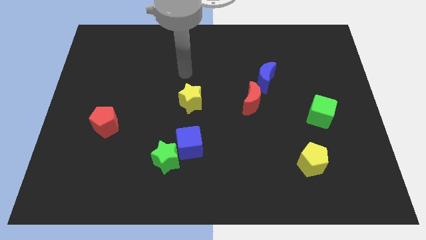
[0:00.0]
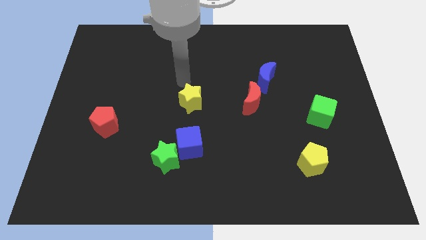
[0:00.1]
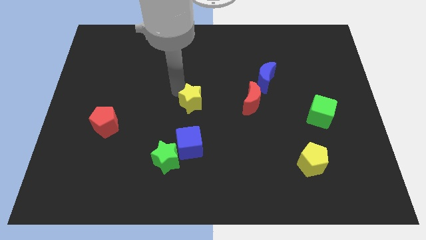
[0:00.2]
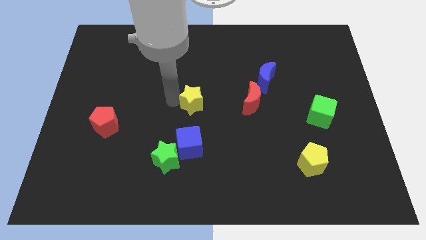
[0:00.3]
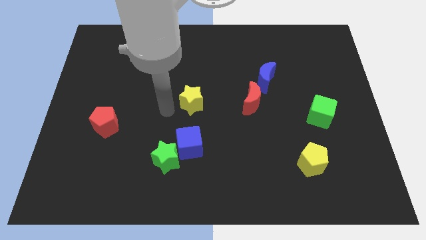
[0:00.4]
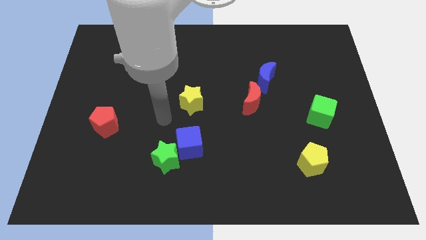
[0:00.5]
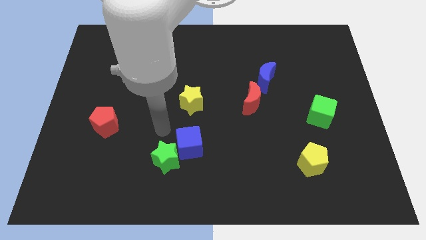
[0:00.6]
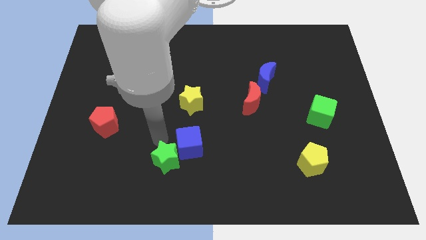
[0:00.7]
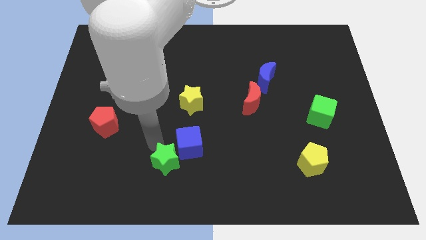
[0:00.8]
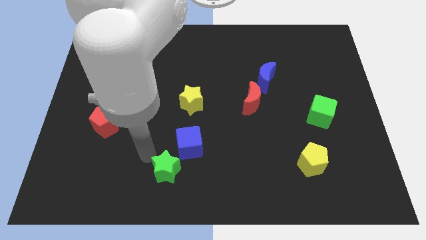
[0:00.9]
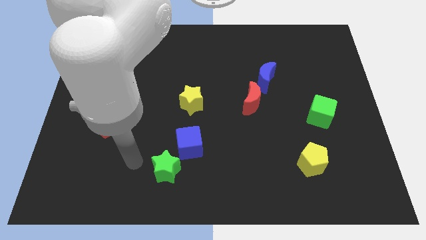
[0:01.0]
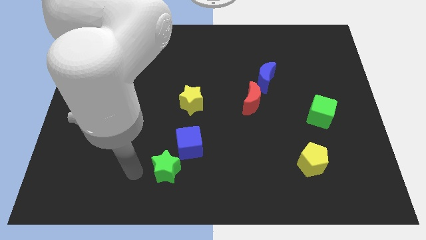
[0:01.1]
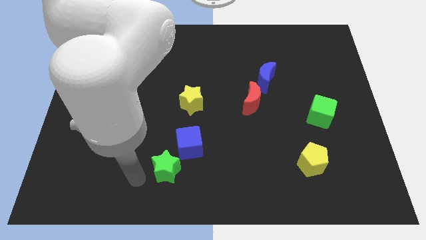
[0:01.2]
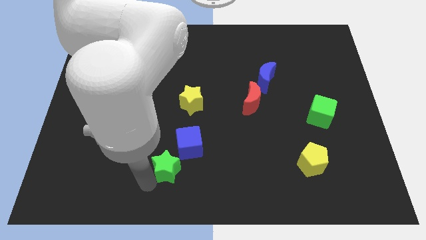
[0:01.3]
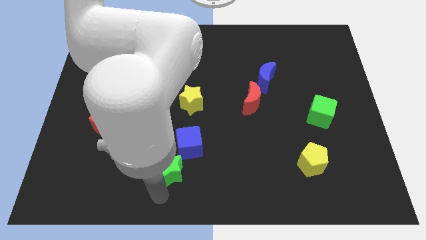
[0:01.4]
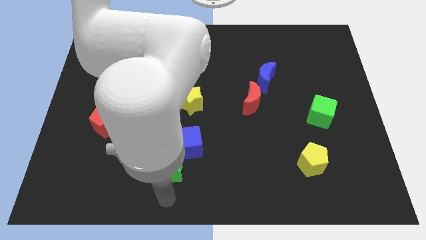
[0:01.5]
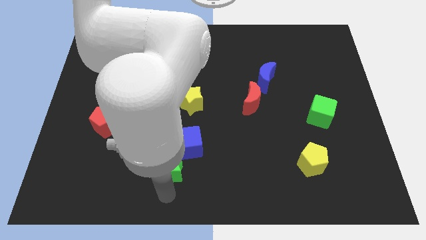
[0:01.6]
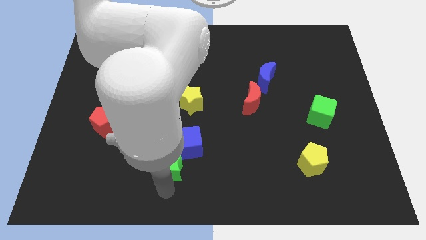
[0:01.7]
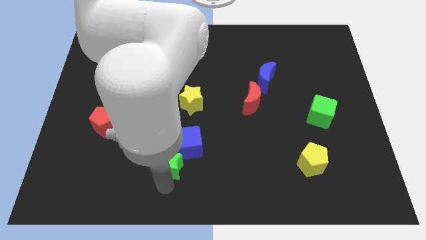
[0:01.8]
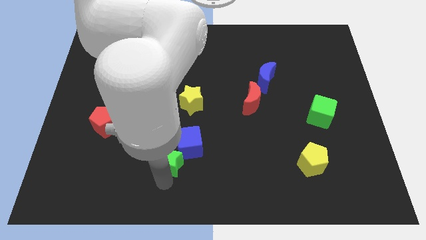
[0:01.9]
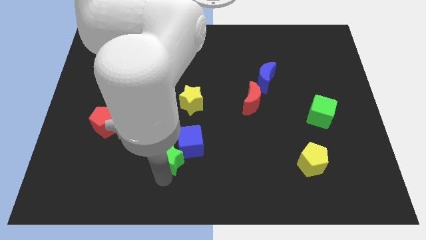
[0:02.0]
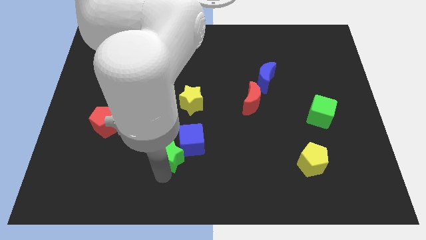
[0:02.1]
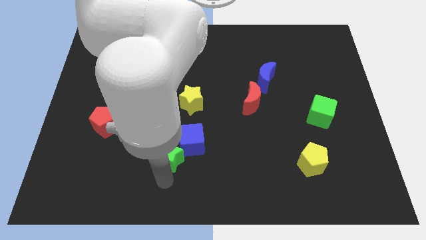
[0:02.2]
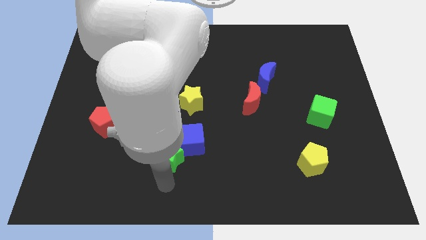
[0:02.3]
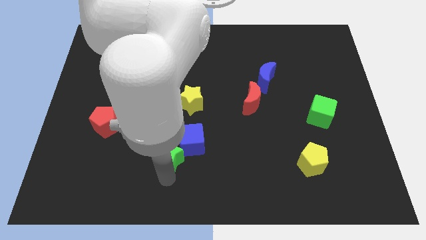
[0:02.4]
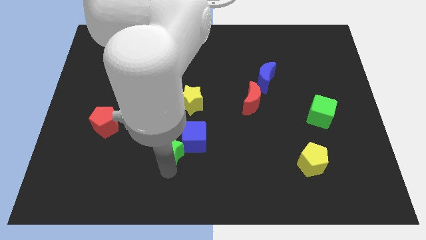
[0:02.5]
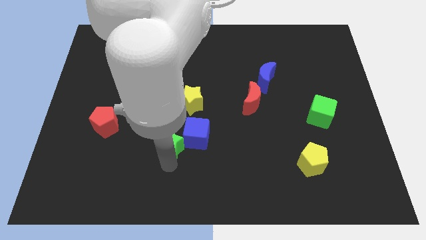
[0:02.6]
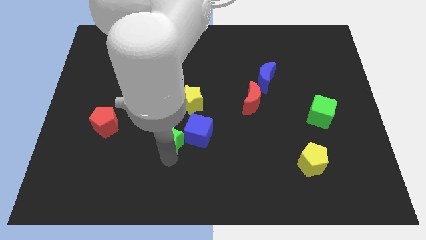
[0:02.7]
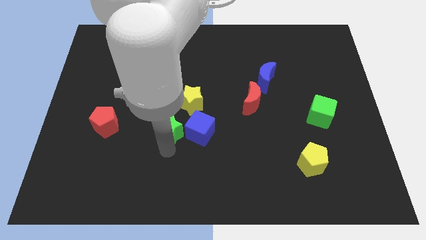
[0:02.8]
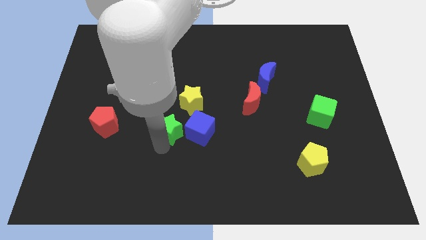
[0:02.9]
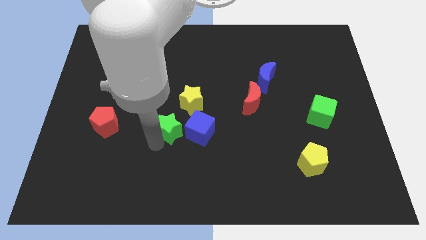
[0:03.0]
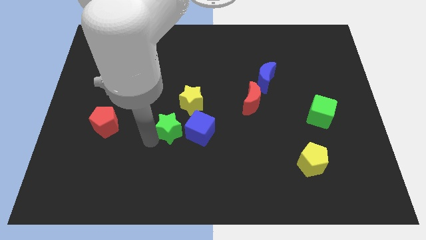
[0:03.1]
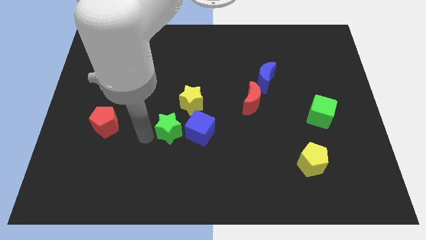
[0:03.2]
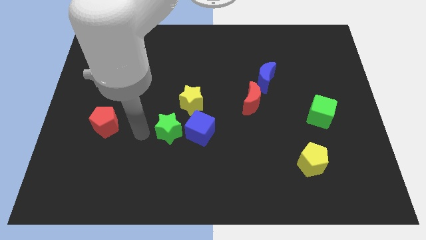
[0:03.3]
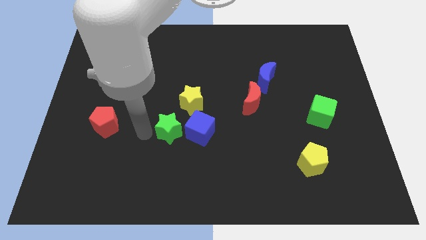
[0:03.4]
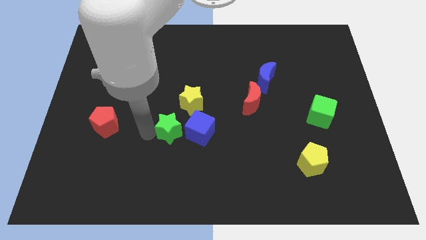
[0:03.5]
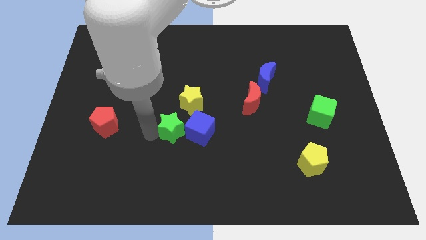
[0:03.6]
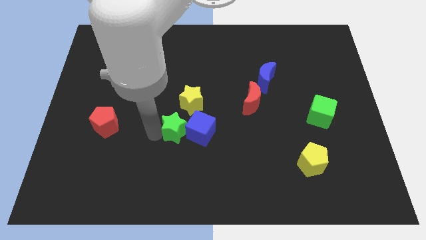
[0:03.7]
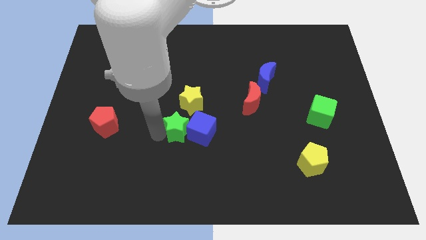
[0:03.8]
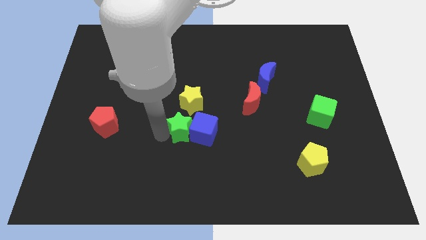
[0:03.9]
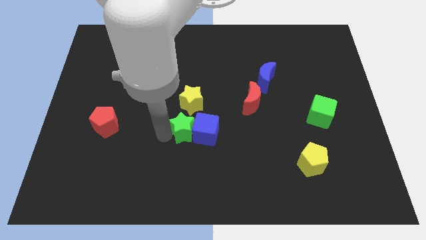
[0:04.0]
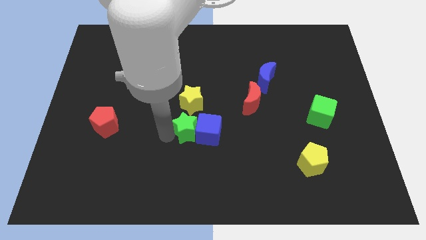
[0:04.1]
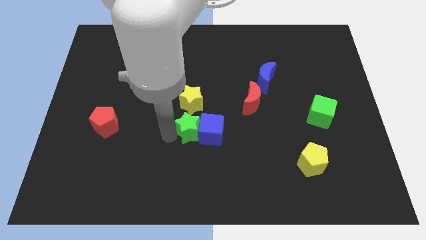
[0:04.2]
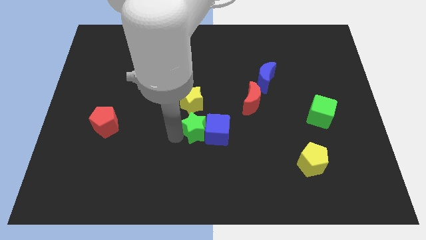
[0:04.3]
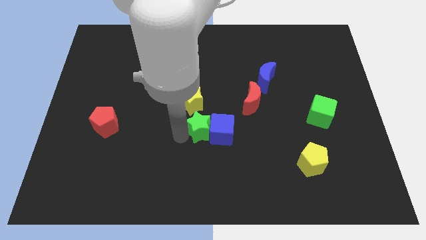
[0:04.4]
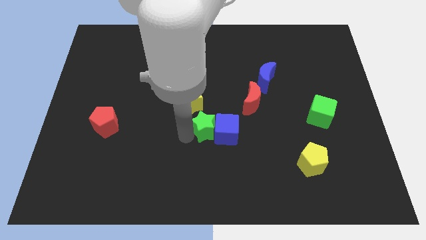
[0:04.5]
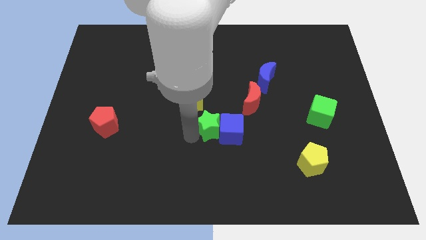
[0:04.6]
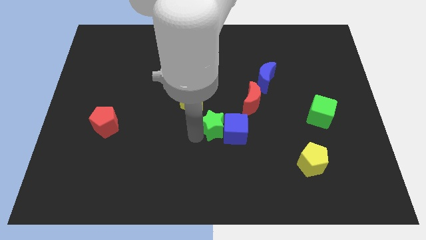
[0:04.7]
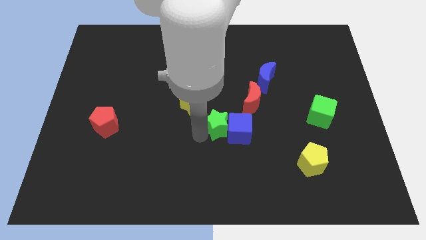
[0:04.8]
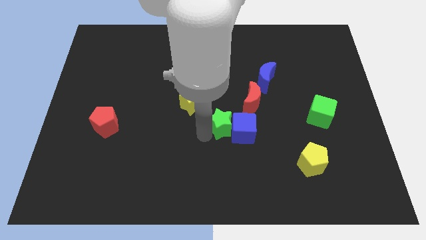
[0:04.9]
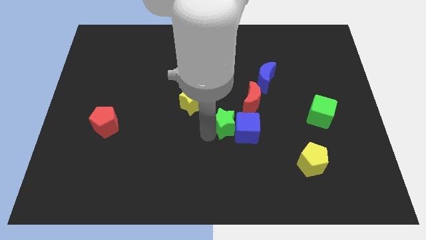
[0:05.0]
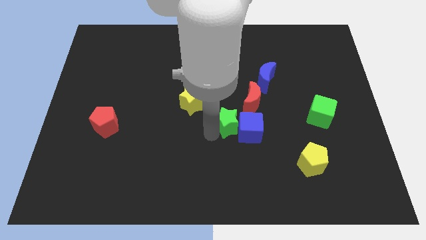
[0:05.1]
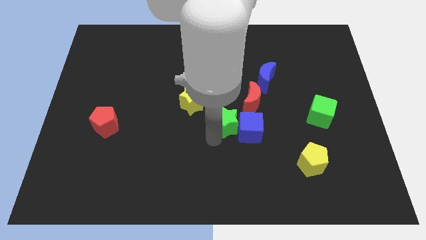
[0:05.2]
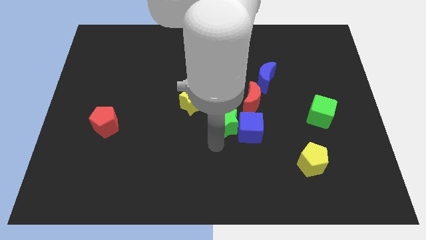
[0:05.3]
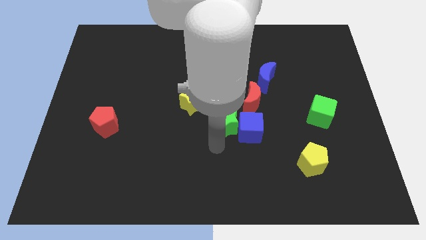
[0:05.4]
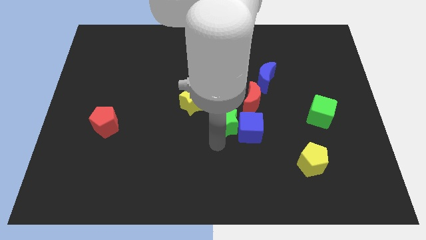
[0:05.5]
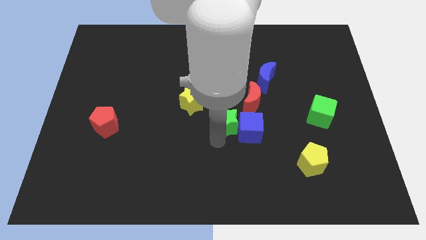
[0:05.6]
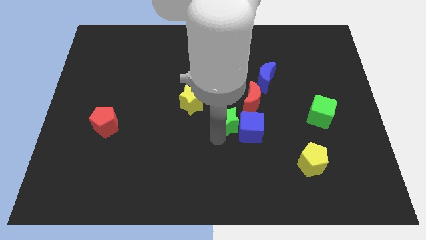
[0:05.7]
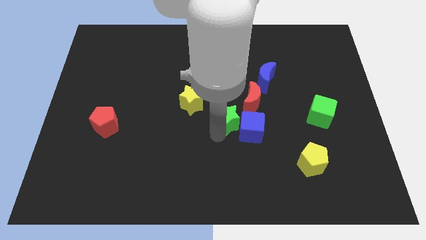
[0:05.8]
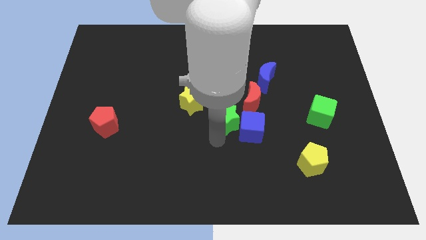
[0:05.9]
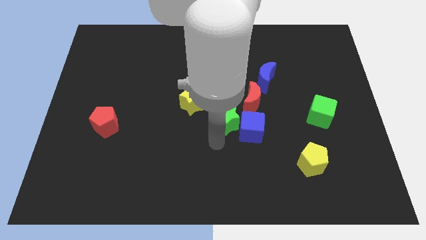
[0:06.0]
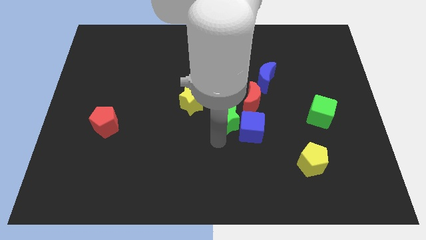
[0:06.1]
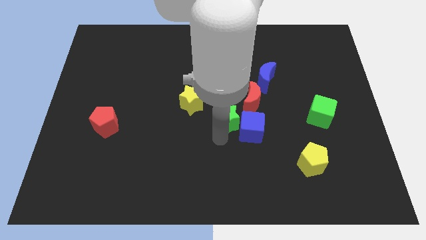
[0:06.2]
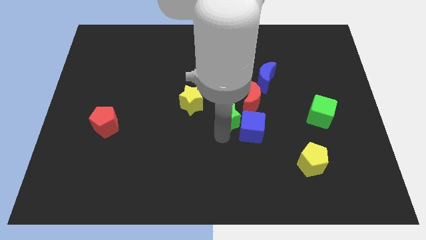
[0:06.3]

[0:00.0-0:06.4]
push the green star right of the yellow star

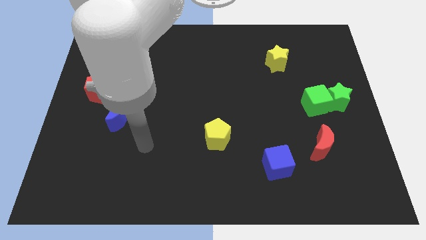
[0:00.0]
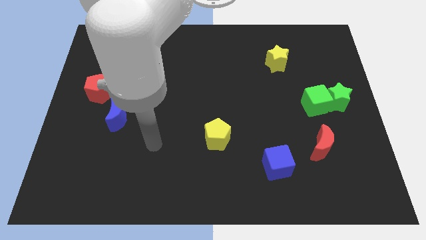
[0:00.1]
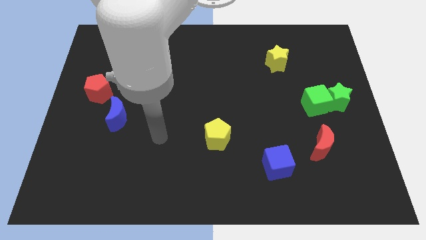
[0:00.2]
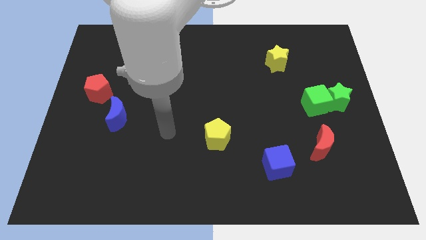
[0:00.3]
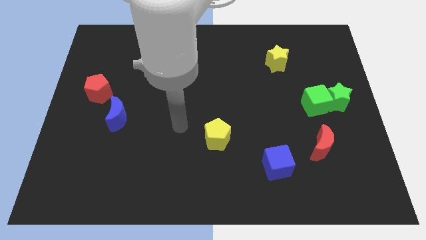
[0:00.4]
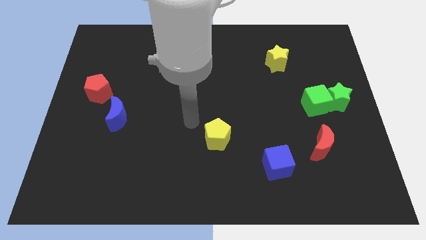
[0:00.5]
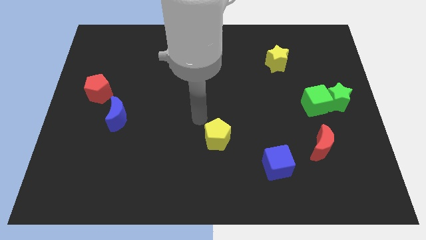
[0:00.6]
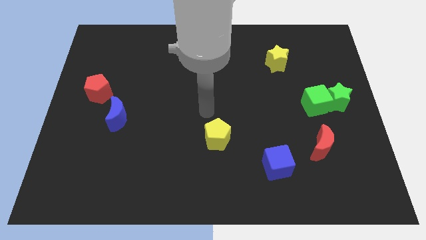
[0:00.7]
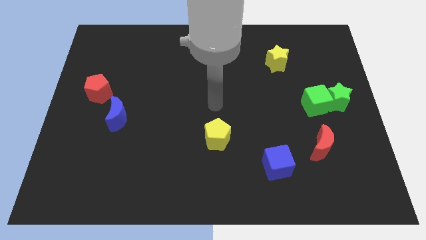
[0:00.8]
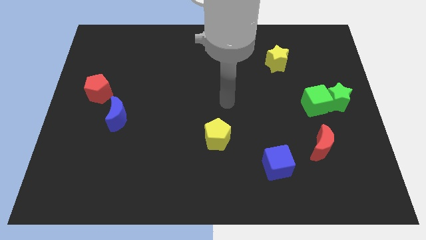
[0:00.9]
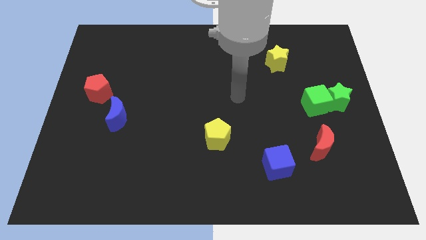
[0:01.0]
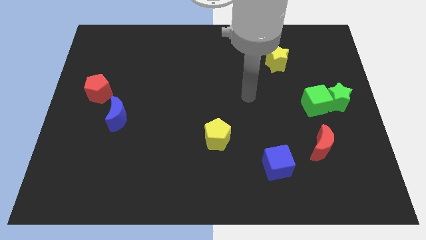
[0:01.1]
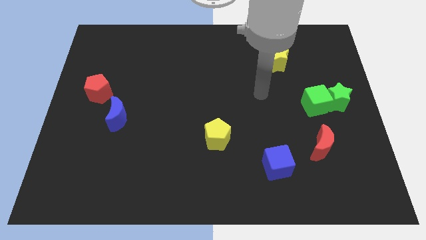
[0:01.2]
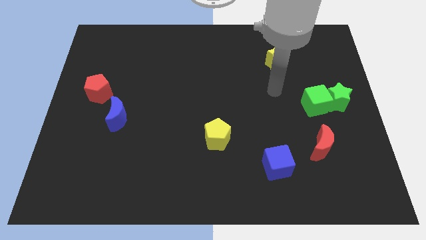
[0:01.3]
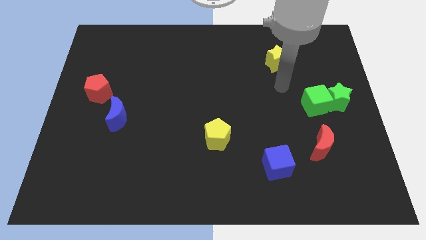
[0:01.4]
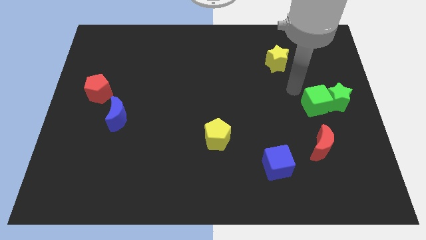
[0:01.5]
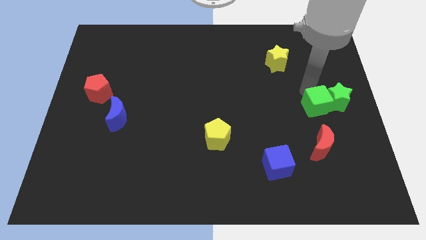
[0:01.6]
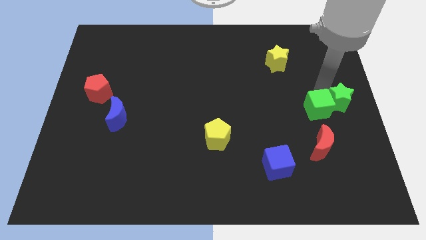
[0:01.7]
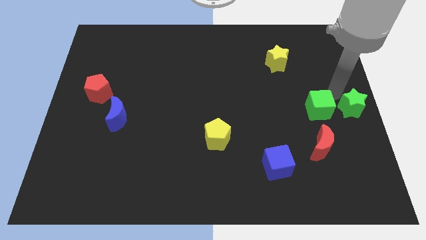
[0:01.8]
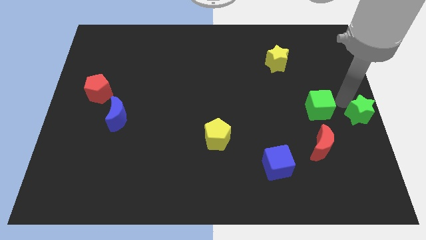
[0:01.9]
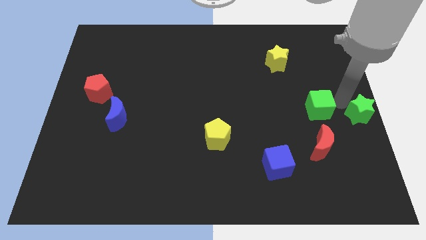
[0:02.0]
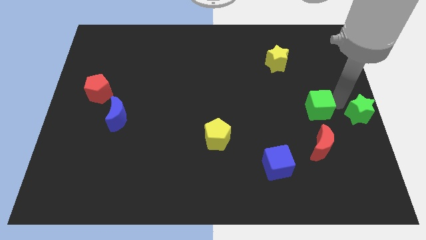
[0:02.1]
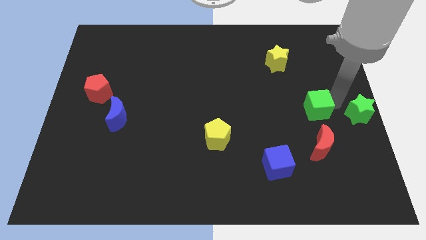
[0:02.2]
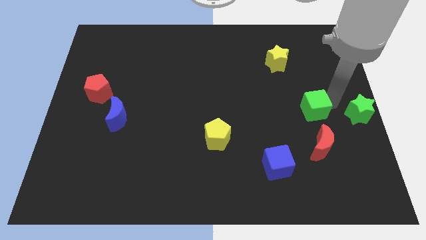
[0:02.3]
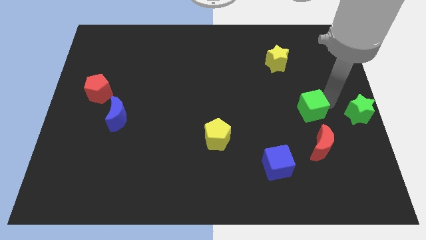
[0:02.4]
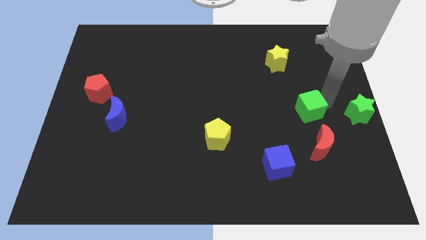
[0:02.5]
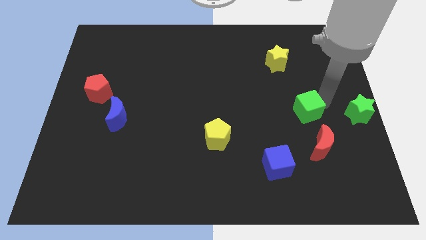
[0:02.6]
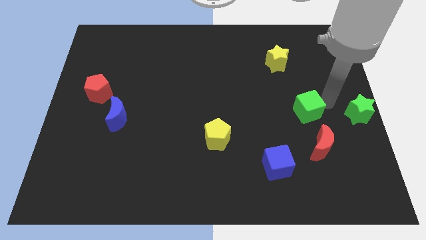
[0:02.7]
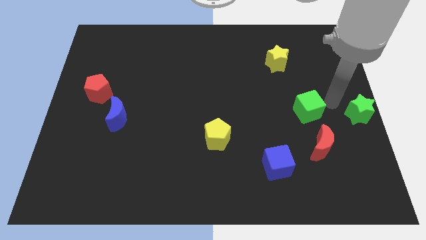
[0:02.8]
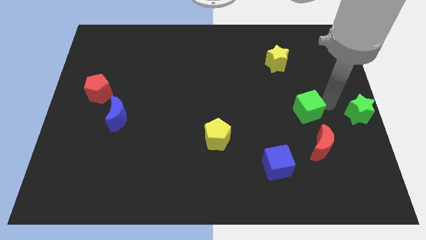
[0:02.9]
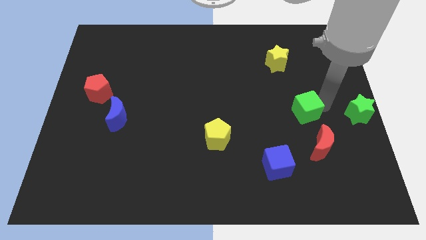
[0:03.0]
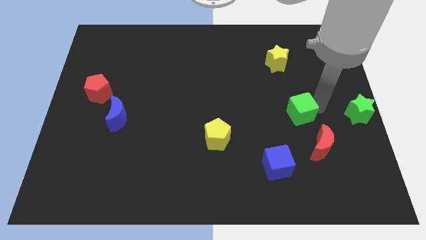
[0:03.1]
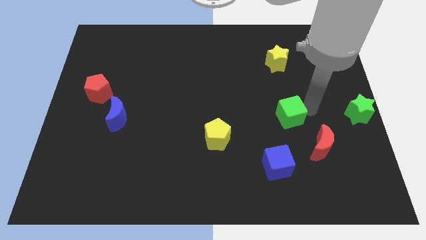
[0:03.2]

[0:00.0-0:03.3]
push the green cube to the top side of the blue cube
